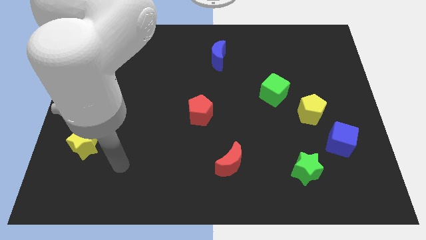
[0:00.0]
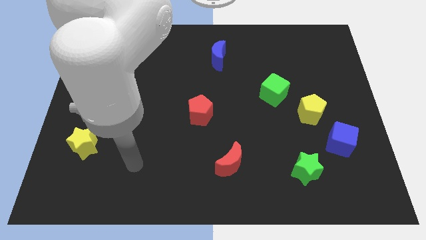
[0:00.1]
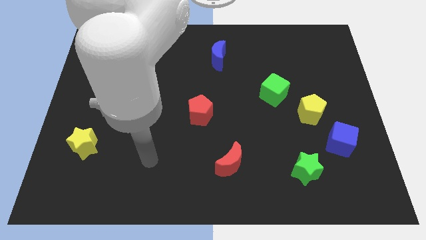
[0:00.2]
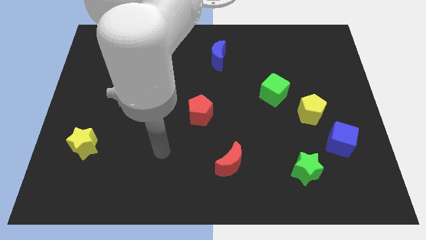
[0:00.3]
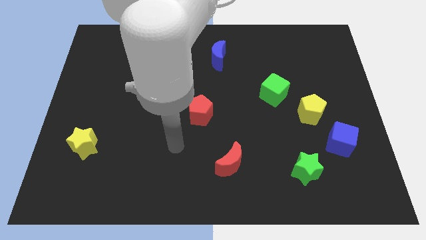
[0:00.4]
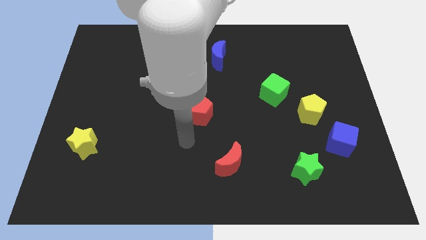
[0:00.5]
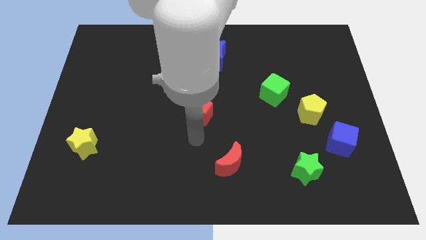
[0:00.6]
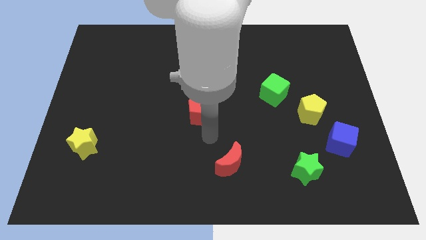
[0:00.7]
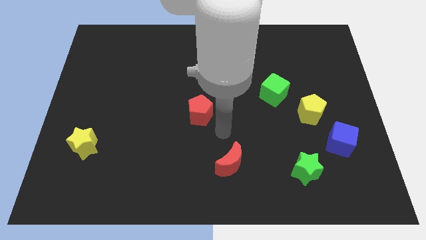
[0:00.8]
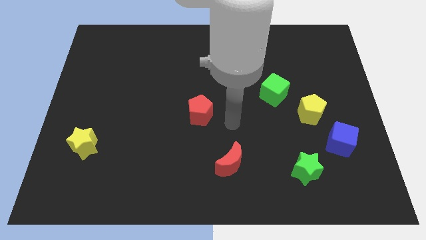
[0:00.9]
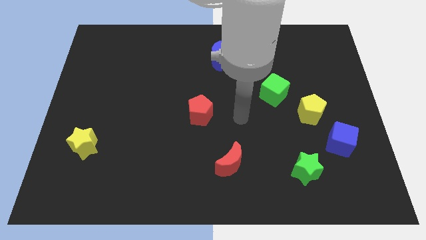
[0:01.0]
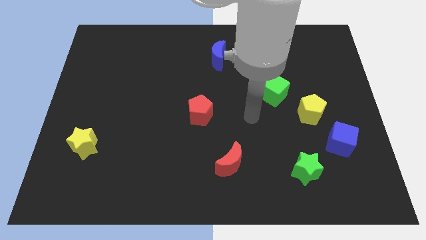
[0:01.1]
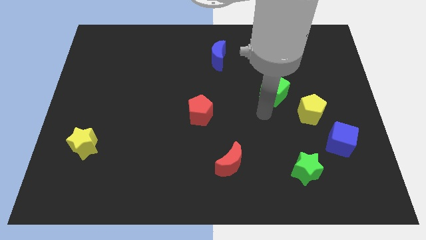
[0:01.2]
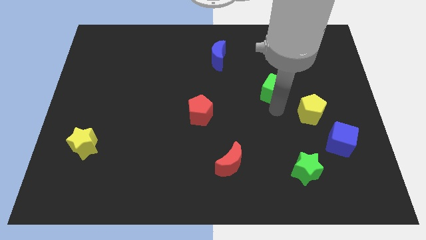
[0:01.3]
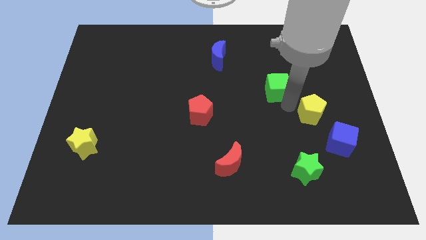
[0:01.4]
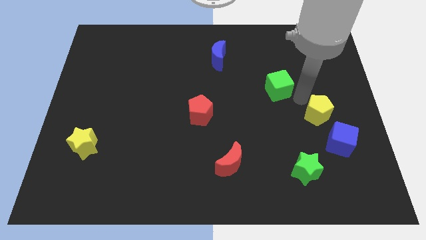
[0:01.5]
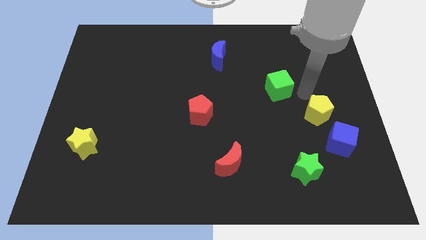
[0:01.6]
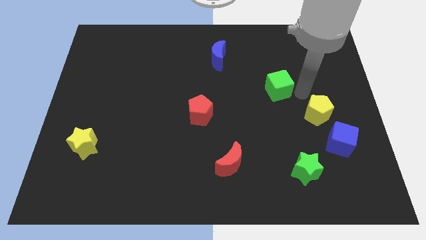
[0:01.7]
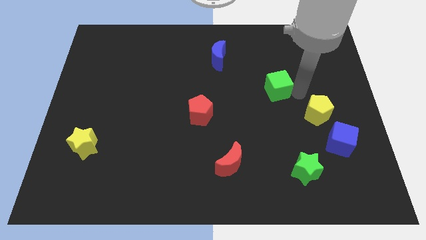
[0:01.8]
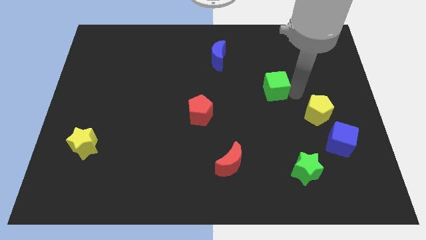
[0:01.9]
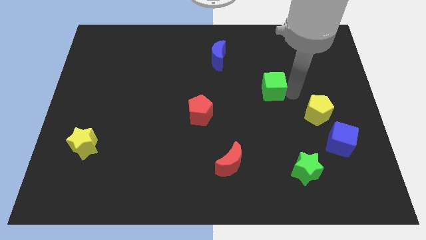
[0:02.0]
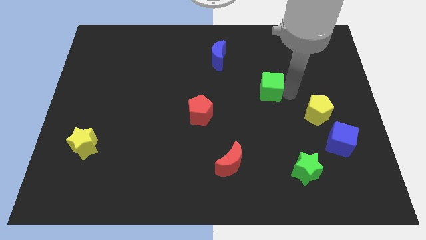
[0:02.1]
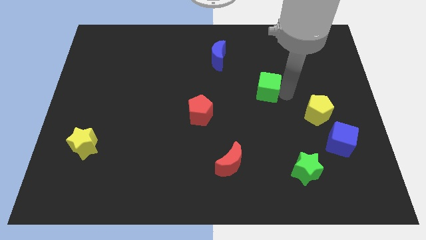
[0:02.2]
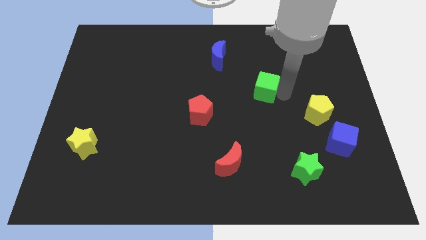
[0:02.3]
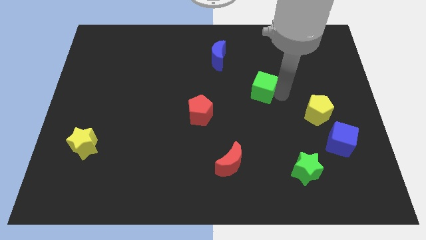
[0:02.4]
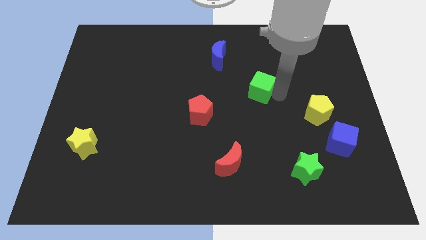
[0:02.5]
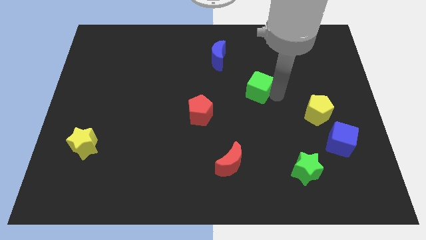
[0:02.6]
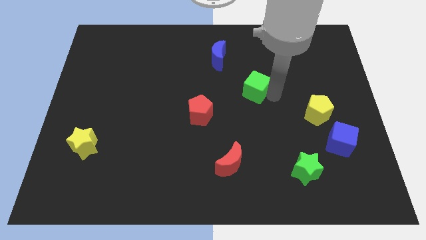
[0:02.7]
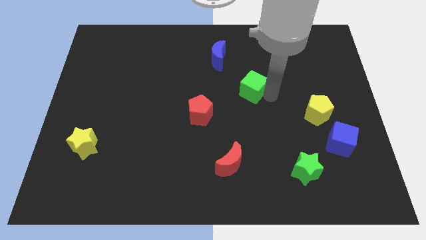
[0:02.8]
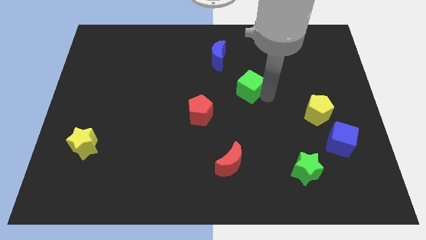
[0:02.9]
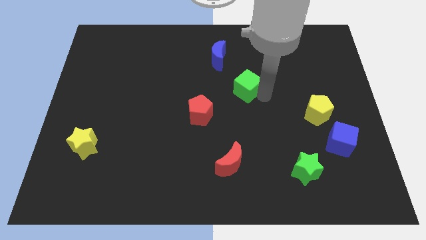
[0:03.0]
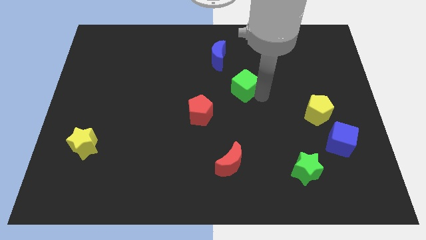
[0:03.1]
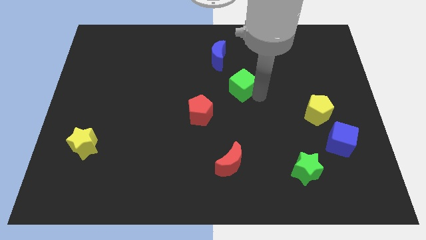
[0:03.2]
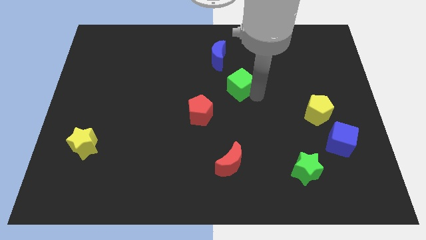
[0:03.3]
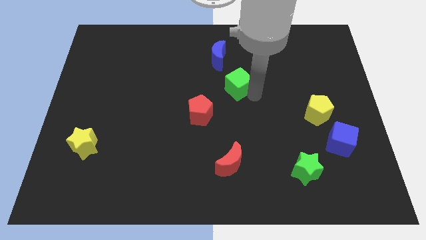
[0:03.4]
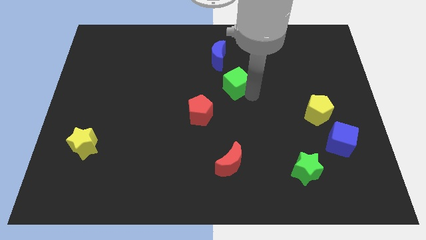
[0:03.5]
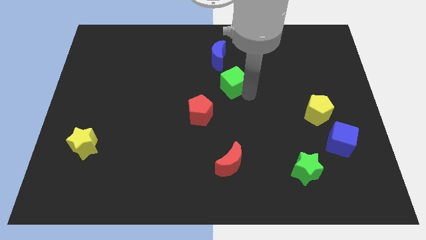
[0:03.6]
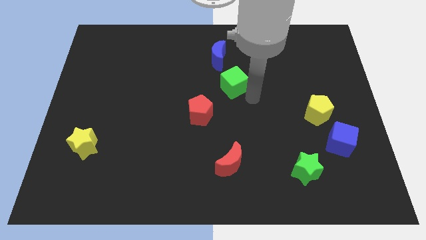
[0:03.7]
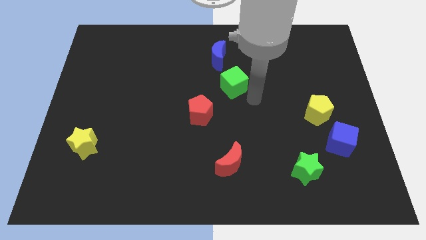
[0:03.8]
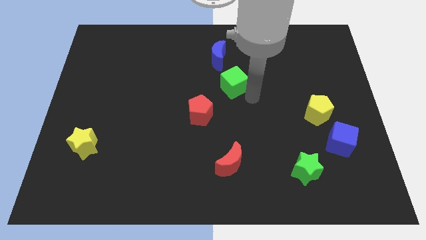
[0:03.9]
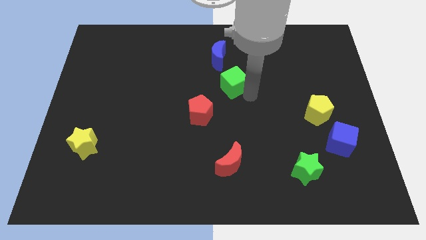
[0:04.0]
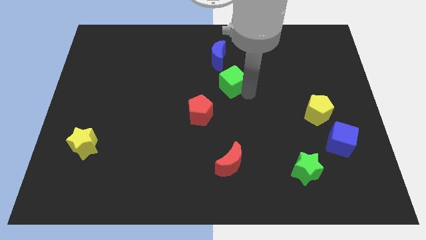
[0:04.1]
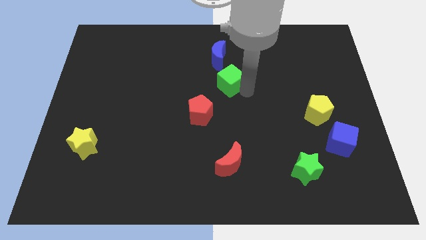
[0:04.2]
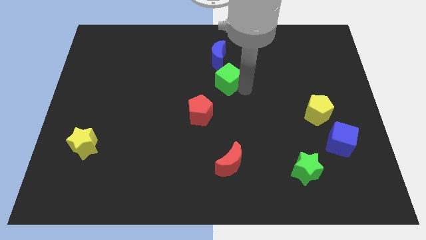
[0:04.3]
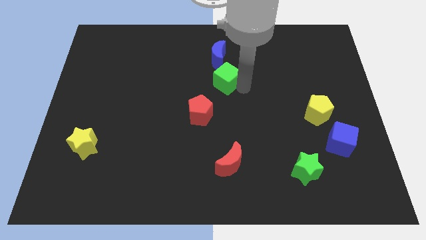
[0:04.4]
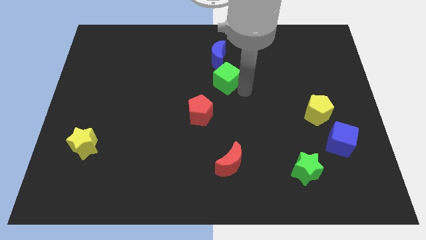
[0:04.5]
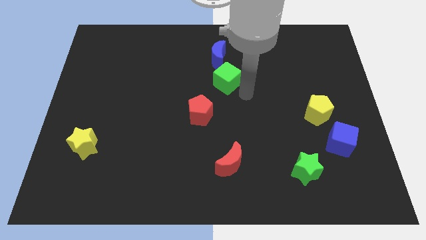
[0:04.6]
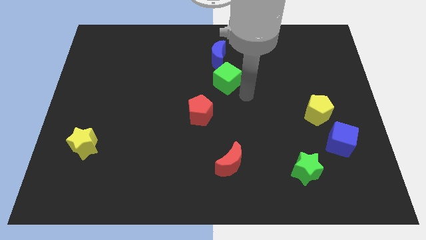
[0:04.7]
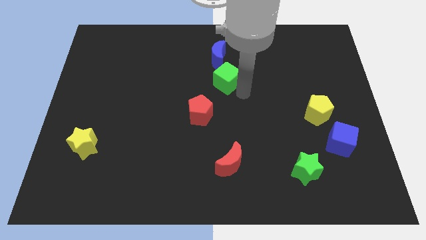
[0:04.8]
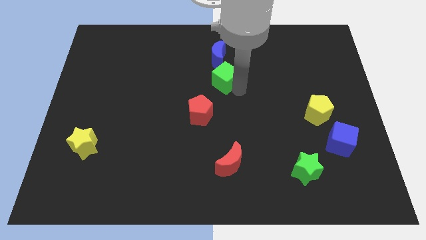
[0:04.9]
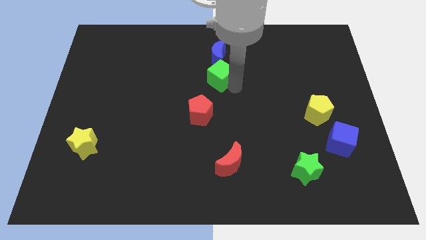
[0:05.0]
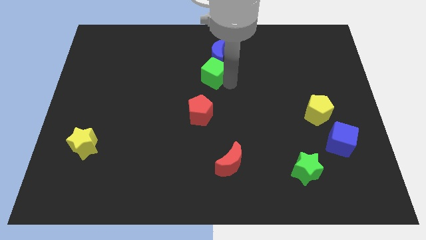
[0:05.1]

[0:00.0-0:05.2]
move the green cube diagonally down and to the left of the blue moon

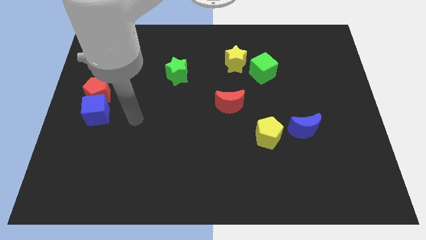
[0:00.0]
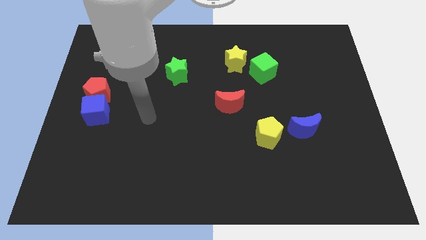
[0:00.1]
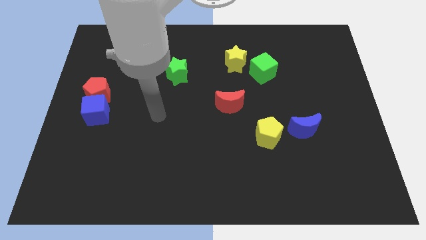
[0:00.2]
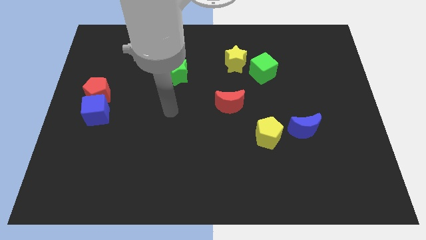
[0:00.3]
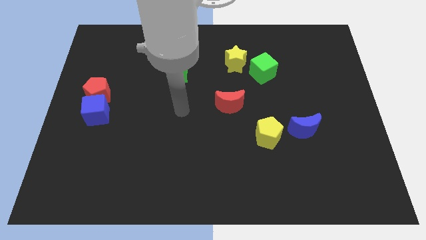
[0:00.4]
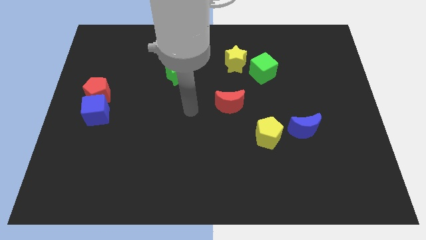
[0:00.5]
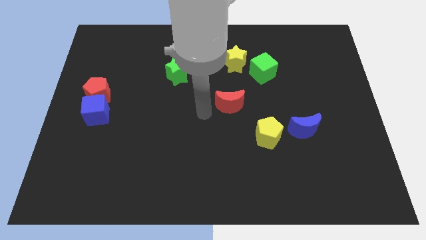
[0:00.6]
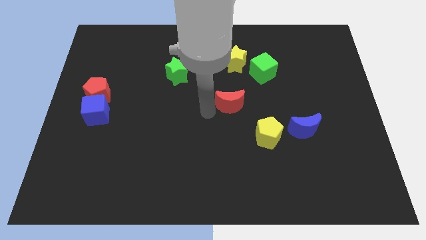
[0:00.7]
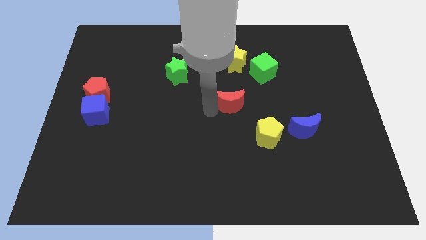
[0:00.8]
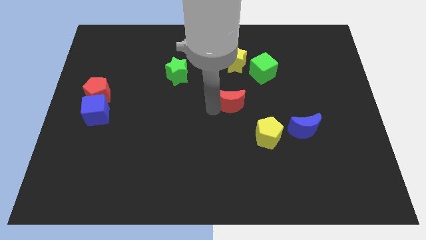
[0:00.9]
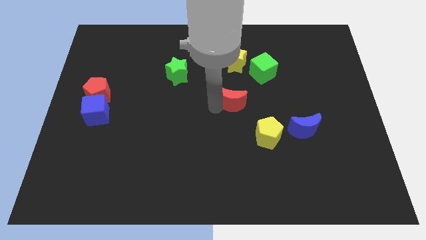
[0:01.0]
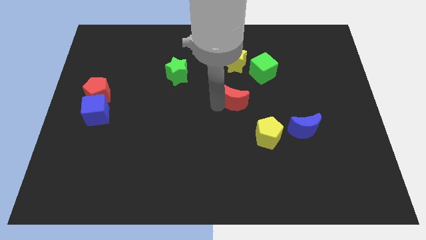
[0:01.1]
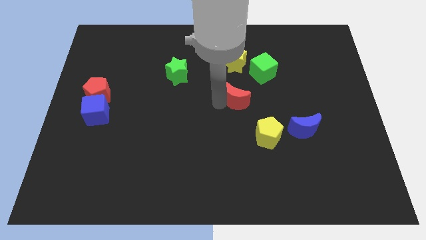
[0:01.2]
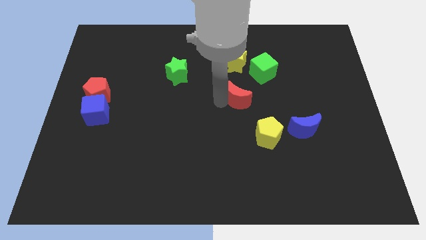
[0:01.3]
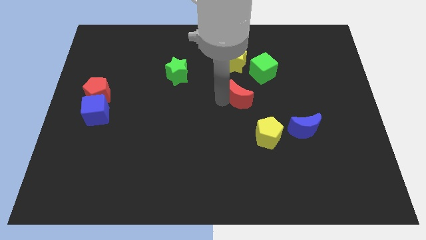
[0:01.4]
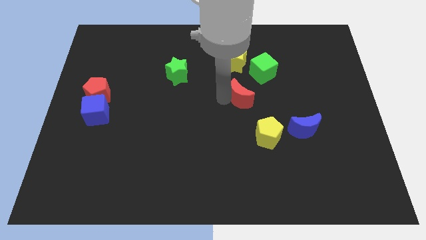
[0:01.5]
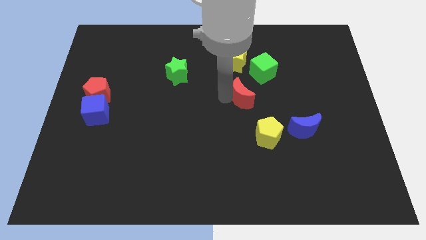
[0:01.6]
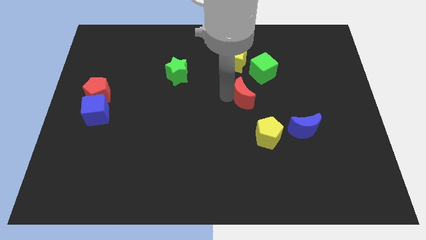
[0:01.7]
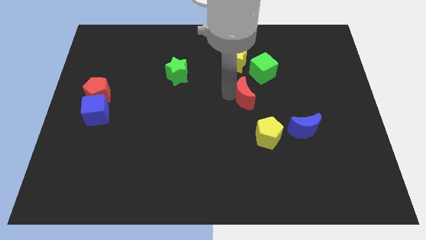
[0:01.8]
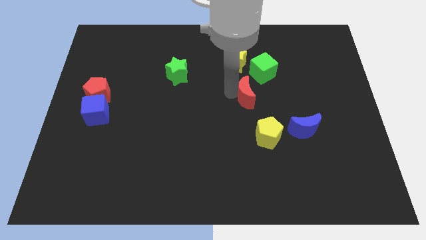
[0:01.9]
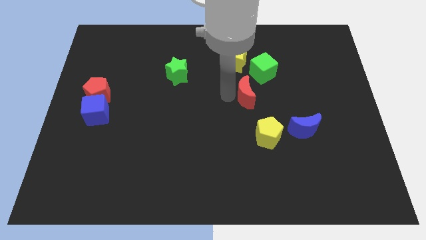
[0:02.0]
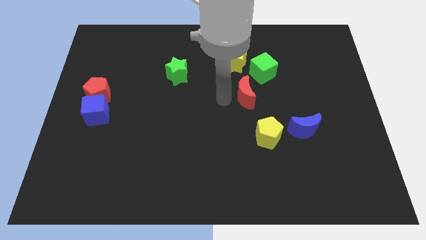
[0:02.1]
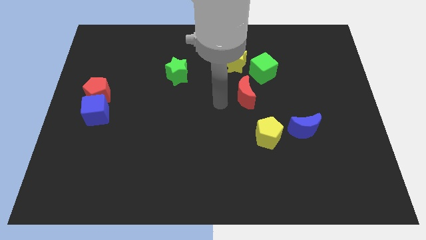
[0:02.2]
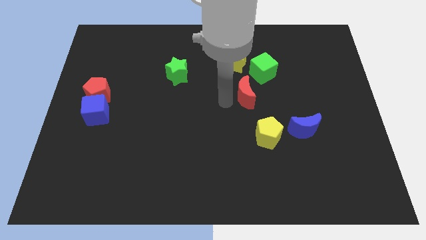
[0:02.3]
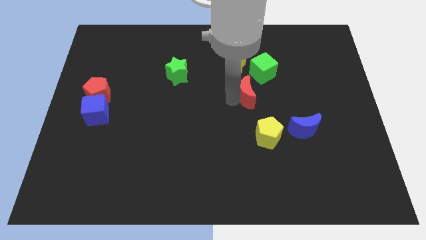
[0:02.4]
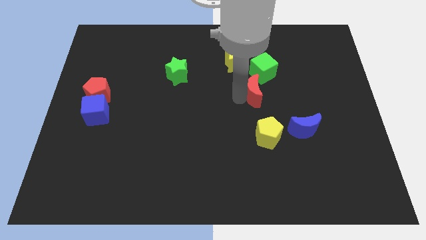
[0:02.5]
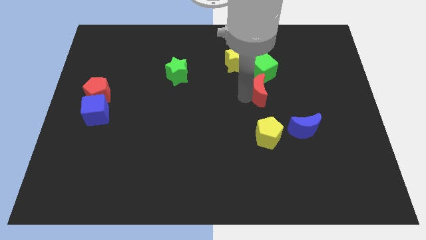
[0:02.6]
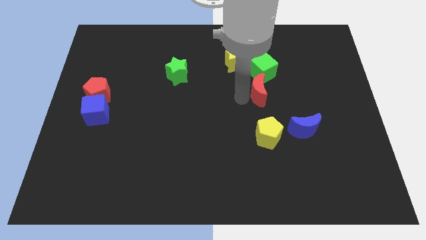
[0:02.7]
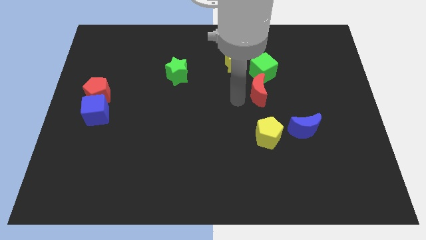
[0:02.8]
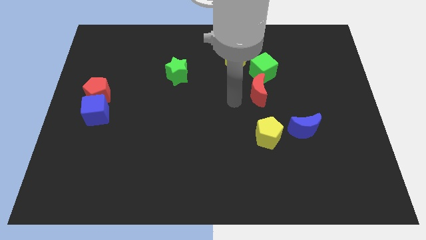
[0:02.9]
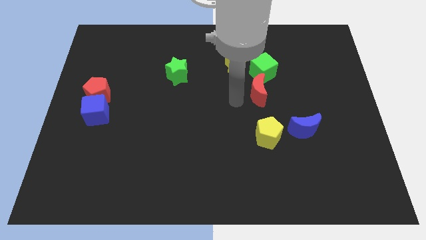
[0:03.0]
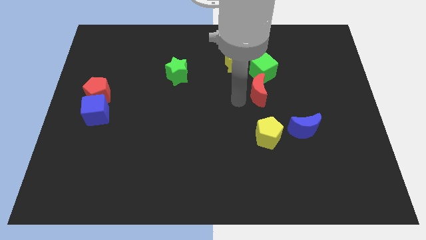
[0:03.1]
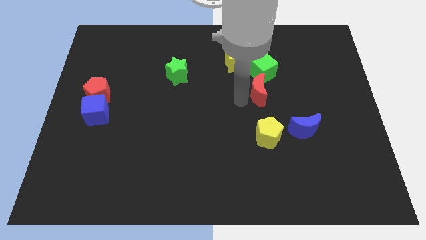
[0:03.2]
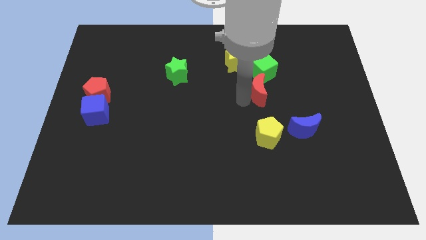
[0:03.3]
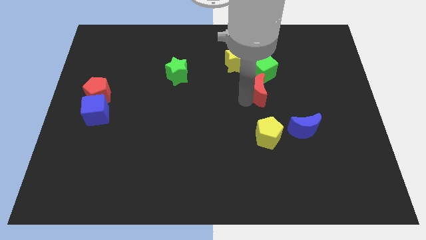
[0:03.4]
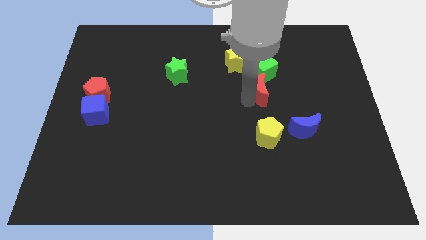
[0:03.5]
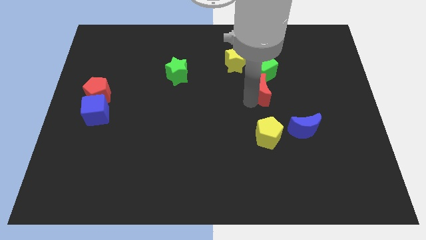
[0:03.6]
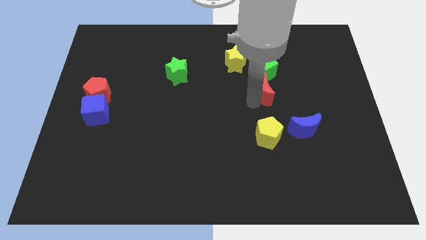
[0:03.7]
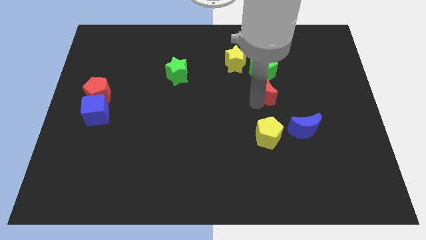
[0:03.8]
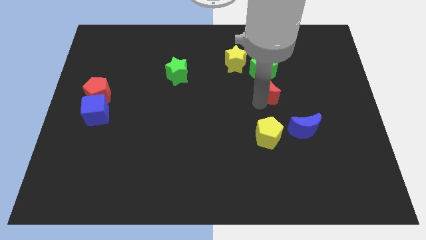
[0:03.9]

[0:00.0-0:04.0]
push the red moon to the bottom right side of the green cube
